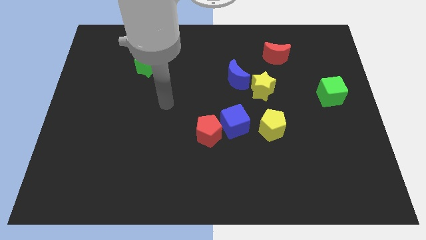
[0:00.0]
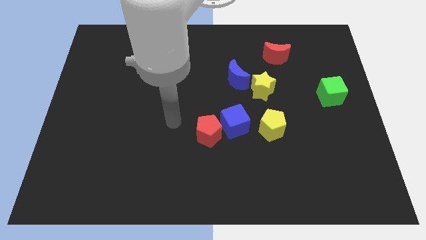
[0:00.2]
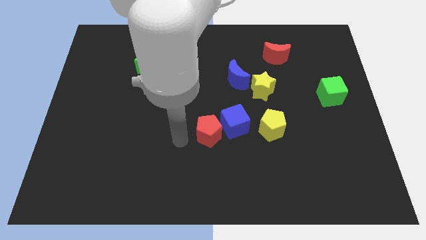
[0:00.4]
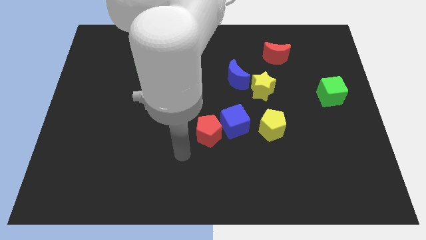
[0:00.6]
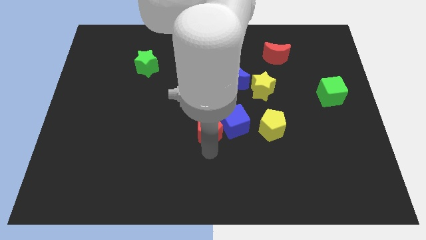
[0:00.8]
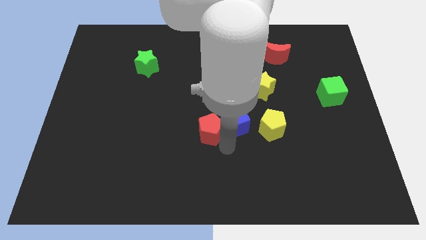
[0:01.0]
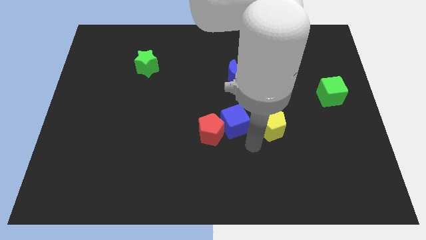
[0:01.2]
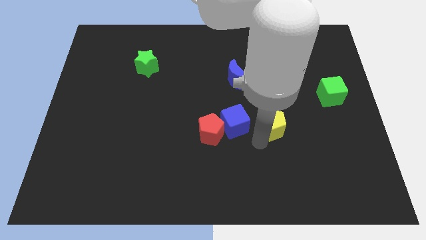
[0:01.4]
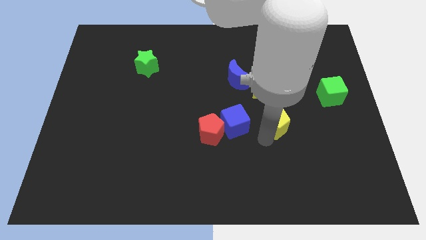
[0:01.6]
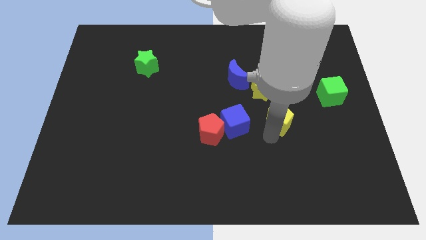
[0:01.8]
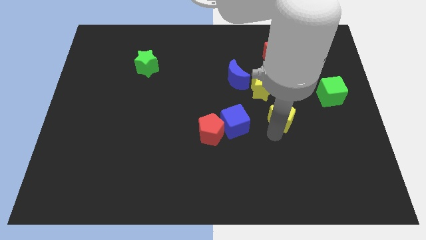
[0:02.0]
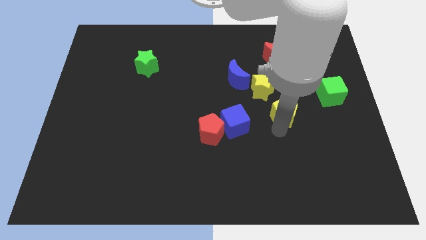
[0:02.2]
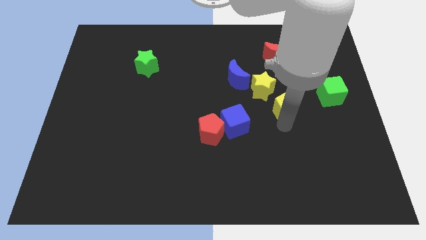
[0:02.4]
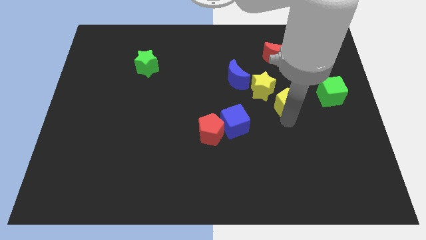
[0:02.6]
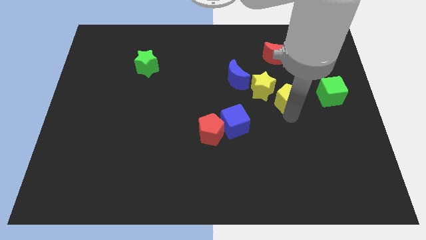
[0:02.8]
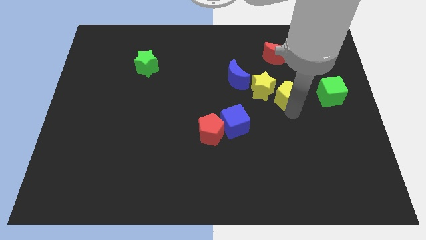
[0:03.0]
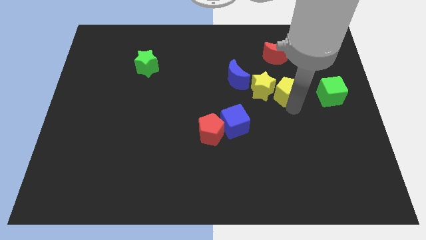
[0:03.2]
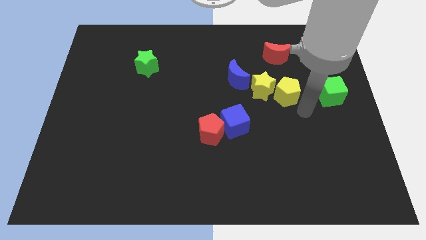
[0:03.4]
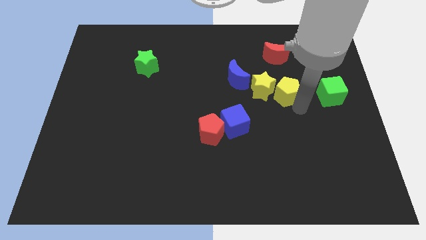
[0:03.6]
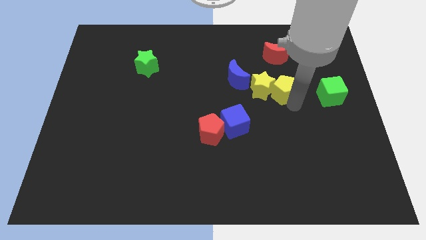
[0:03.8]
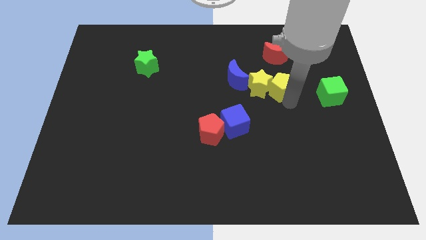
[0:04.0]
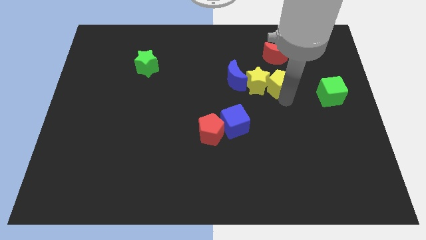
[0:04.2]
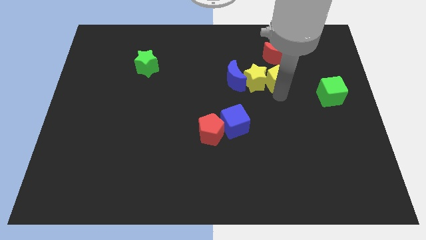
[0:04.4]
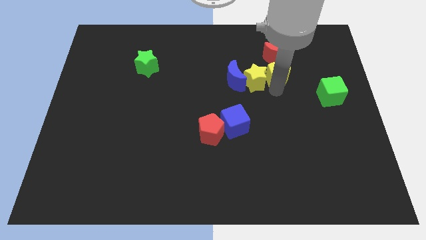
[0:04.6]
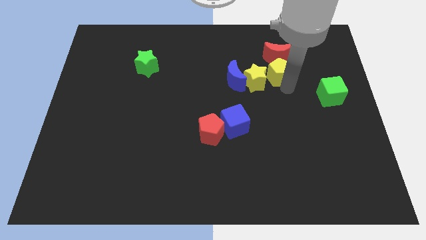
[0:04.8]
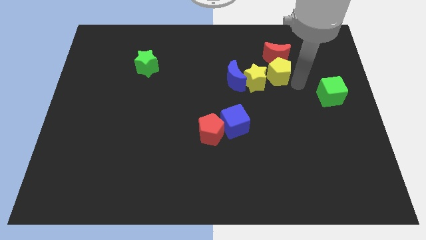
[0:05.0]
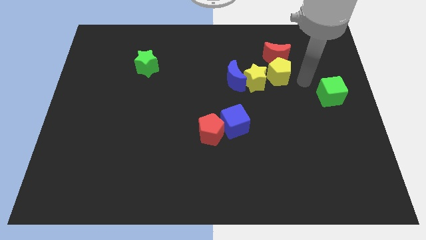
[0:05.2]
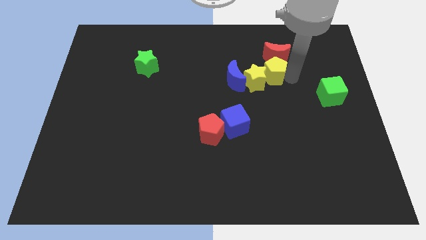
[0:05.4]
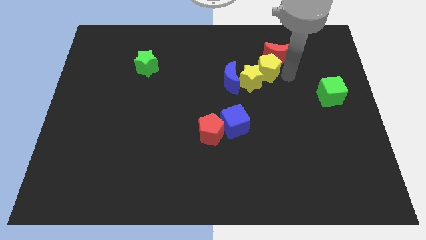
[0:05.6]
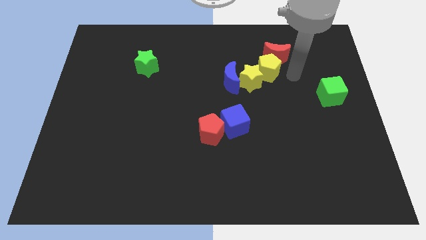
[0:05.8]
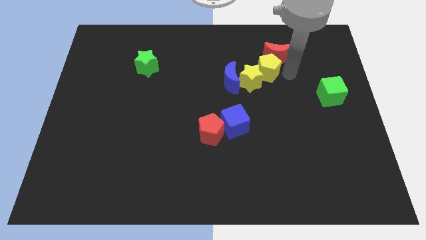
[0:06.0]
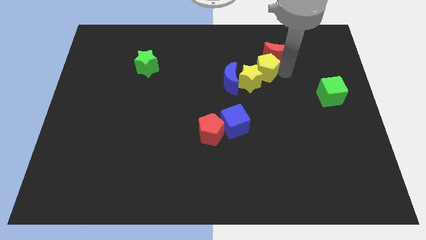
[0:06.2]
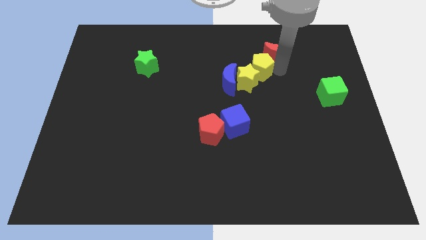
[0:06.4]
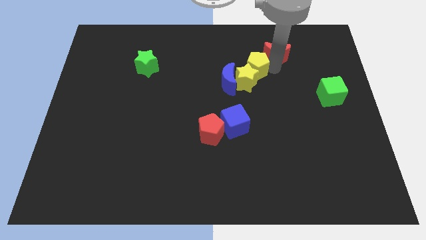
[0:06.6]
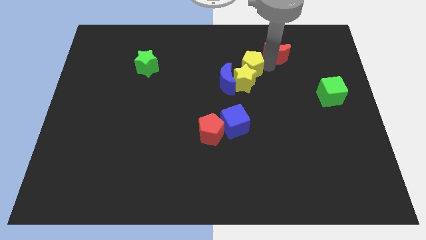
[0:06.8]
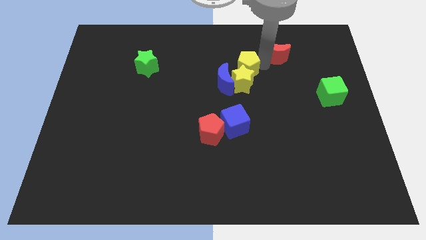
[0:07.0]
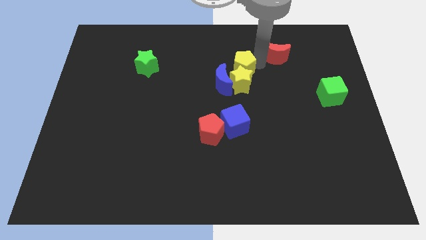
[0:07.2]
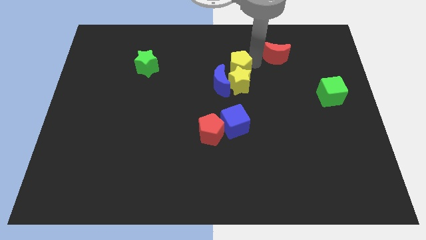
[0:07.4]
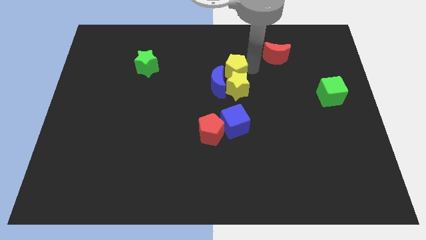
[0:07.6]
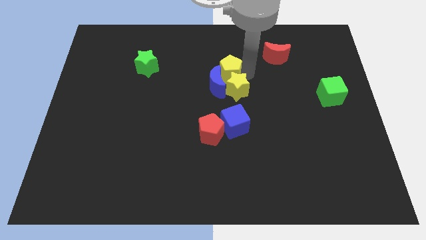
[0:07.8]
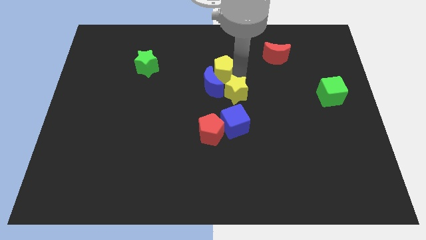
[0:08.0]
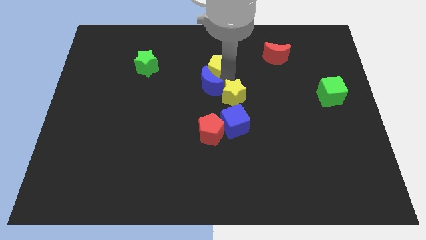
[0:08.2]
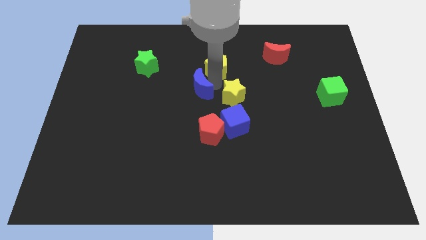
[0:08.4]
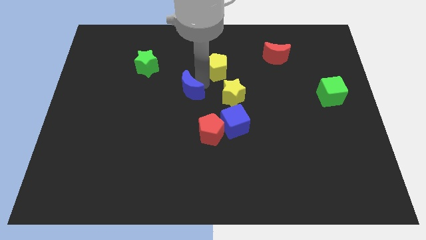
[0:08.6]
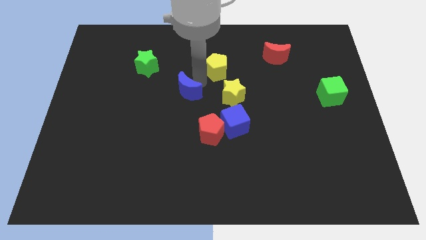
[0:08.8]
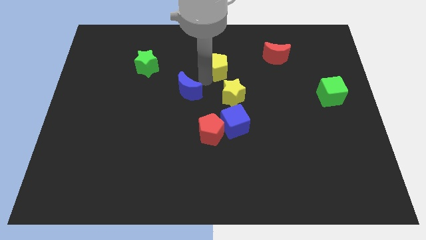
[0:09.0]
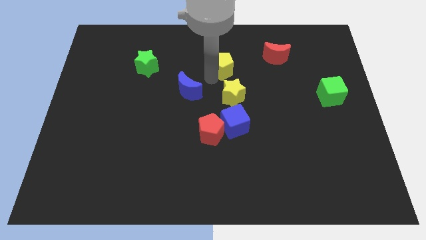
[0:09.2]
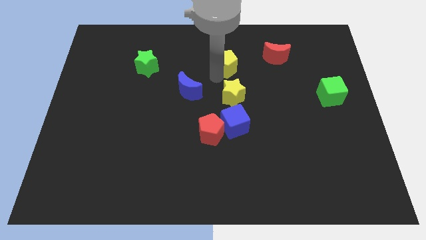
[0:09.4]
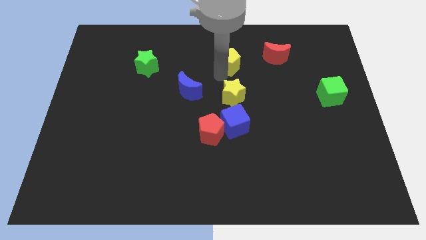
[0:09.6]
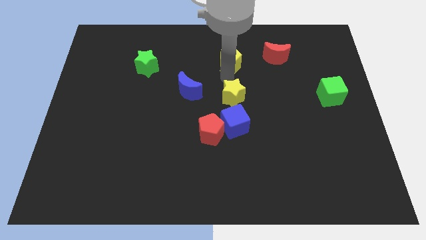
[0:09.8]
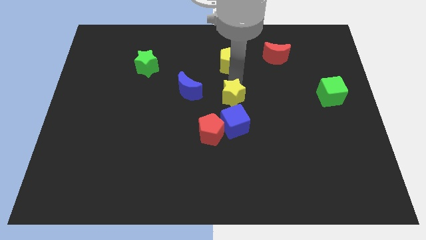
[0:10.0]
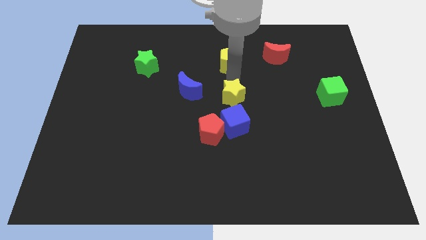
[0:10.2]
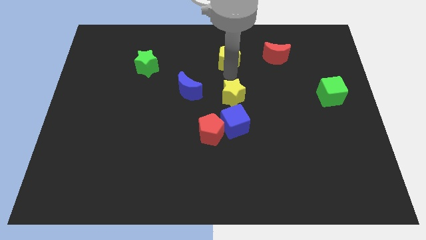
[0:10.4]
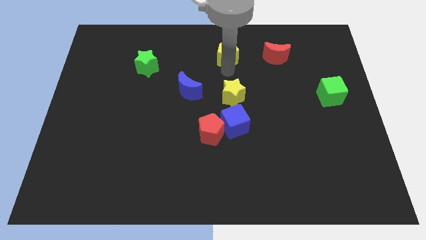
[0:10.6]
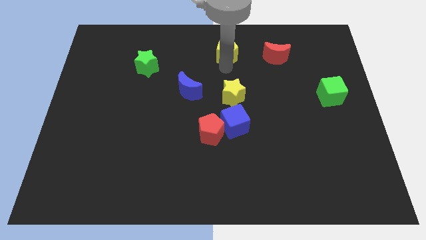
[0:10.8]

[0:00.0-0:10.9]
push the yellow pentagon to the towards your base

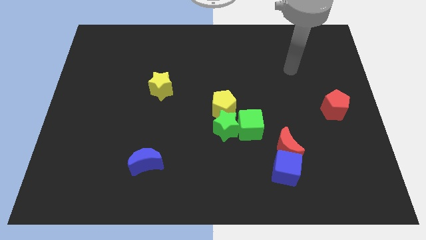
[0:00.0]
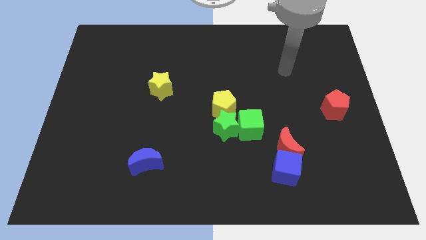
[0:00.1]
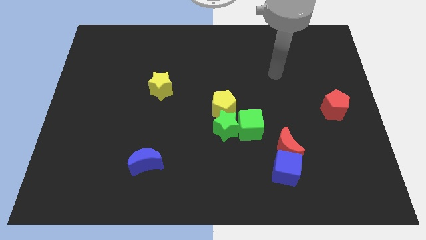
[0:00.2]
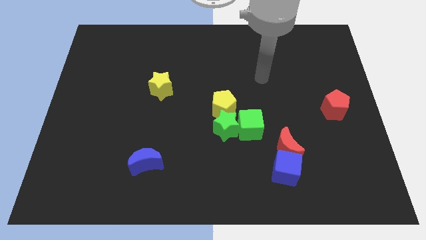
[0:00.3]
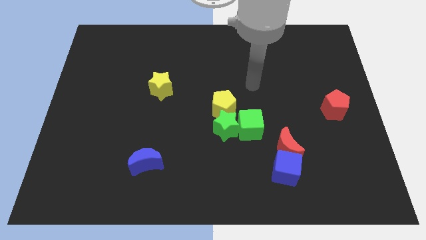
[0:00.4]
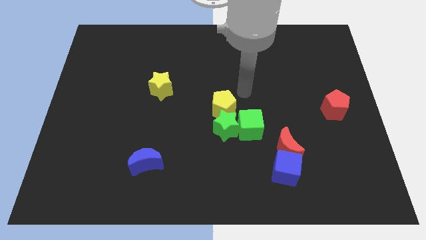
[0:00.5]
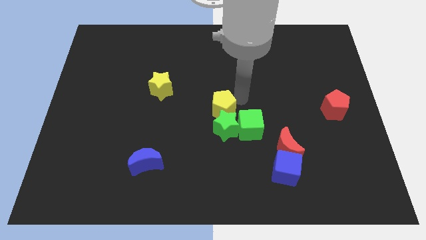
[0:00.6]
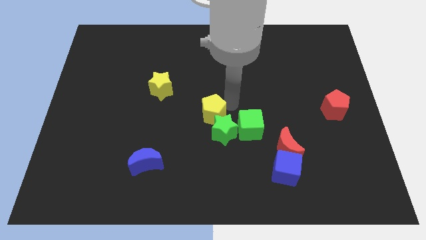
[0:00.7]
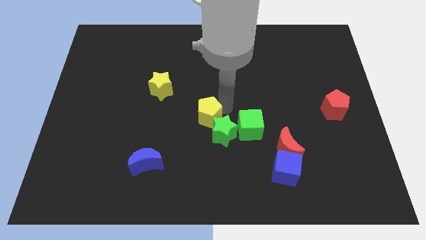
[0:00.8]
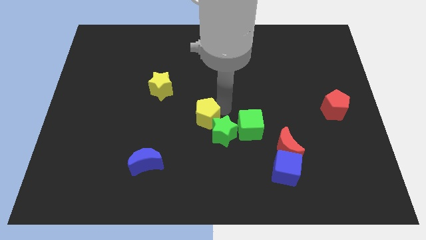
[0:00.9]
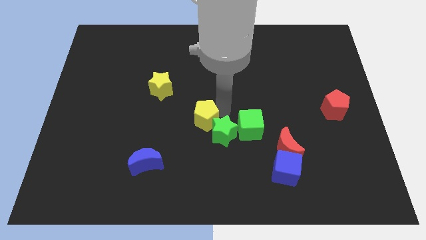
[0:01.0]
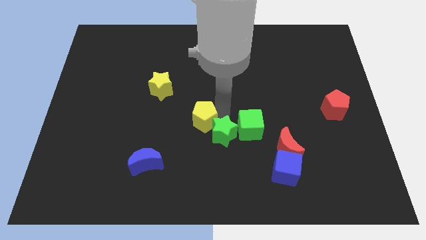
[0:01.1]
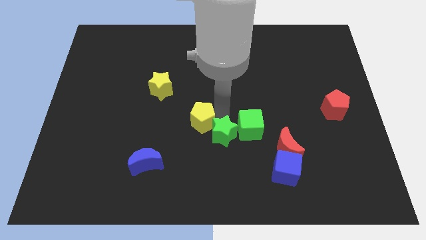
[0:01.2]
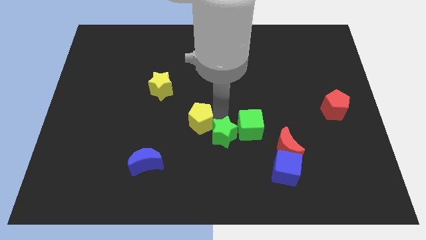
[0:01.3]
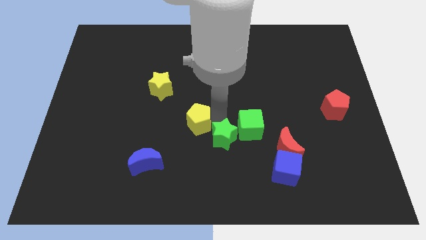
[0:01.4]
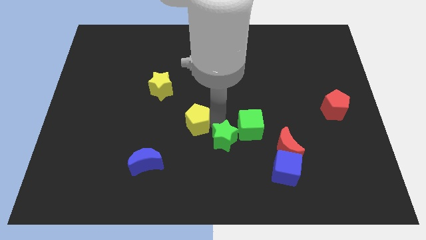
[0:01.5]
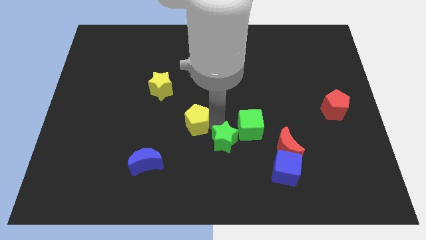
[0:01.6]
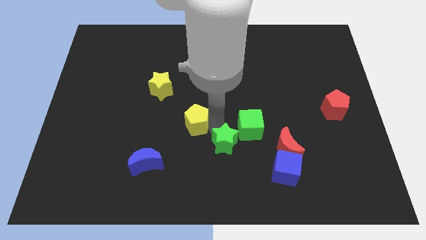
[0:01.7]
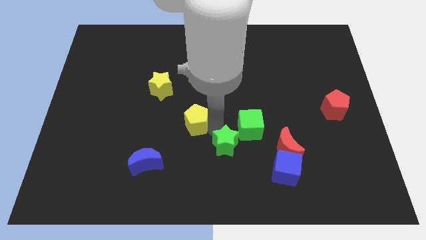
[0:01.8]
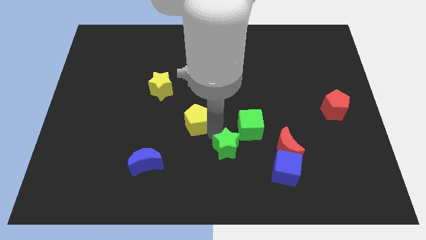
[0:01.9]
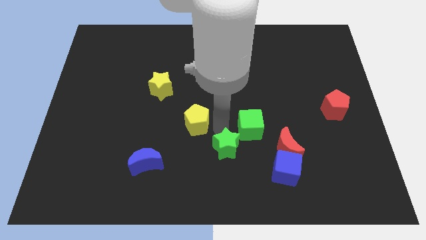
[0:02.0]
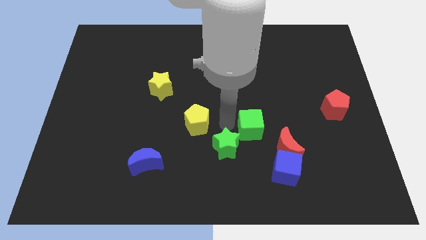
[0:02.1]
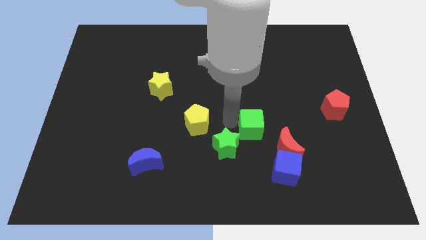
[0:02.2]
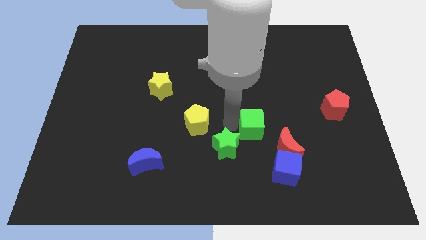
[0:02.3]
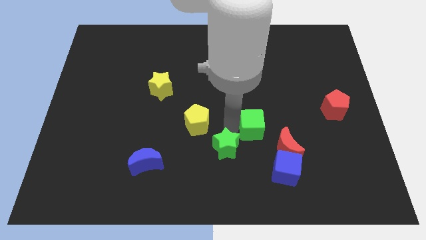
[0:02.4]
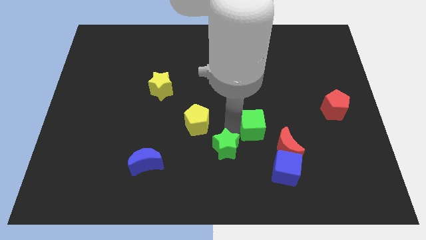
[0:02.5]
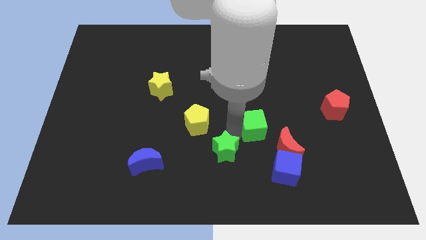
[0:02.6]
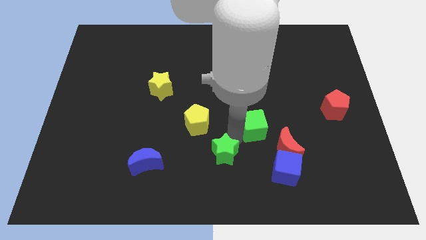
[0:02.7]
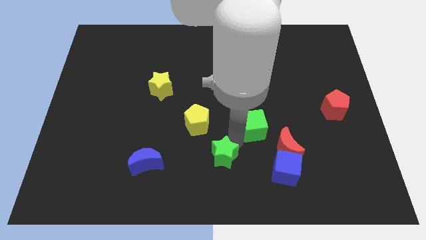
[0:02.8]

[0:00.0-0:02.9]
put the green star to the bottom side
